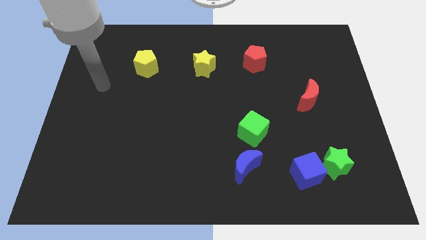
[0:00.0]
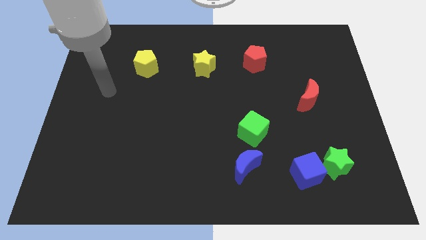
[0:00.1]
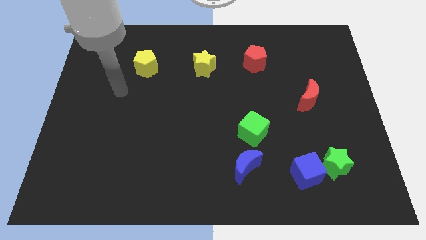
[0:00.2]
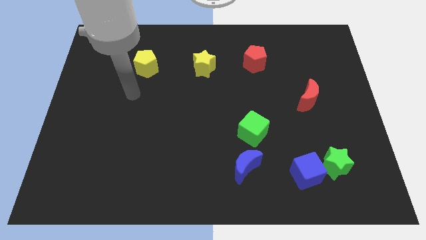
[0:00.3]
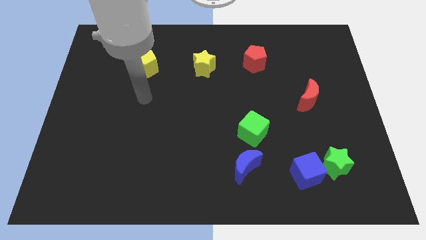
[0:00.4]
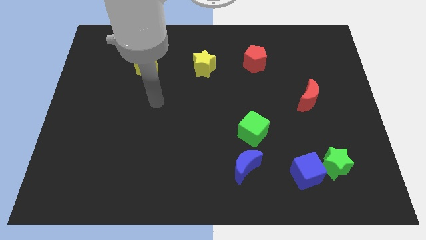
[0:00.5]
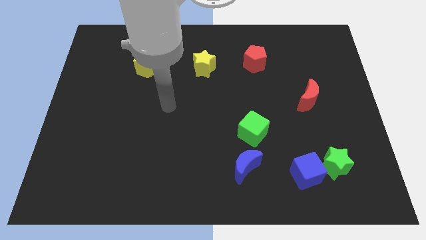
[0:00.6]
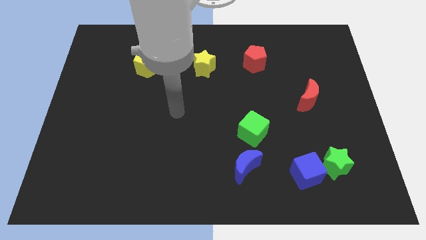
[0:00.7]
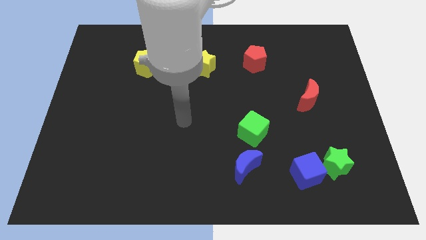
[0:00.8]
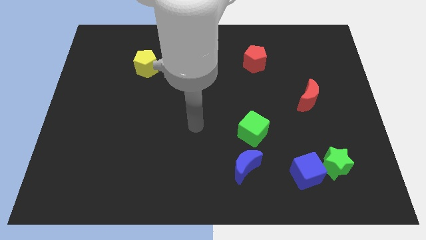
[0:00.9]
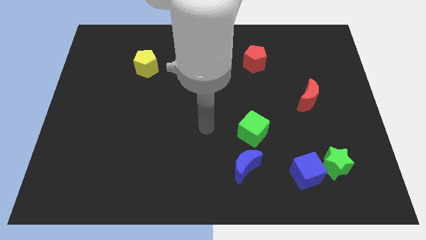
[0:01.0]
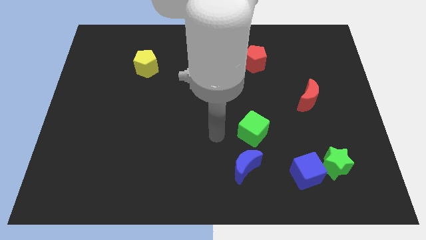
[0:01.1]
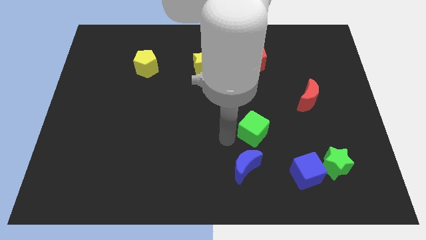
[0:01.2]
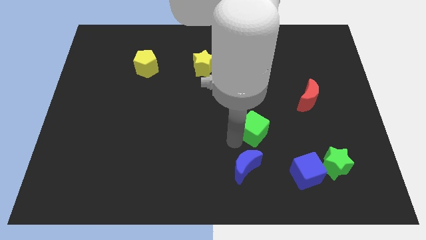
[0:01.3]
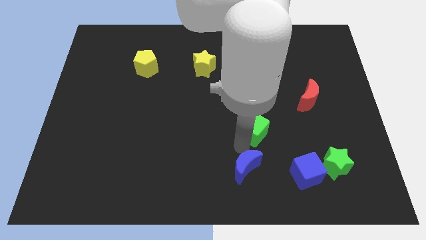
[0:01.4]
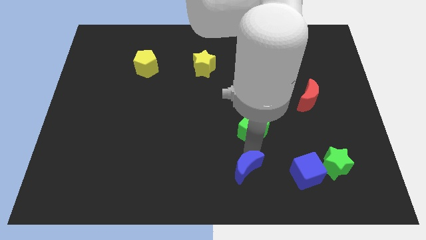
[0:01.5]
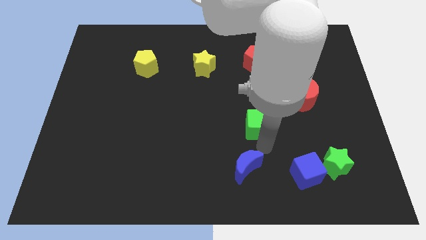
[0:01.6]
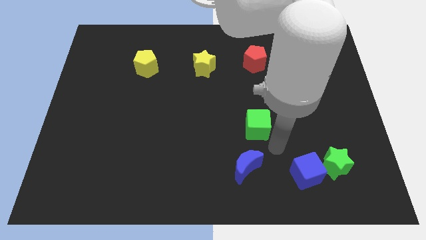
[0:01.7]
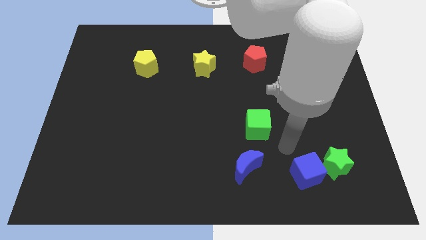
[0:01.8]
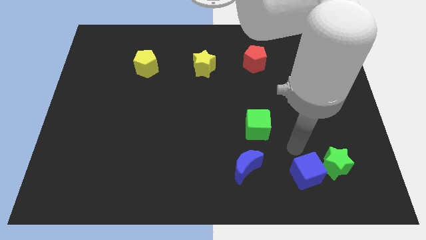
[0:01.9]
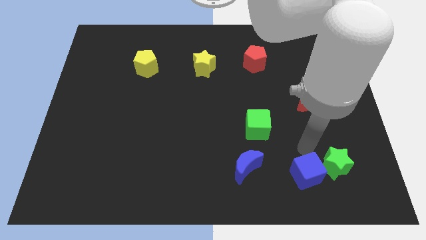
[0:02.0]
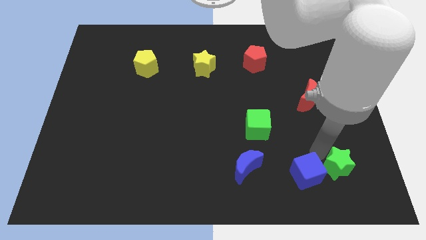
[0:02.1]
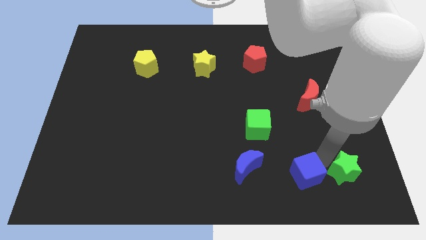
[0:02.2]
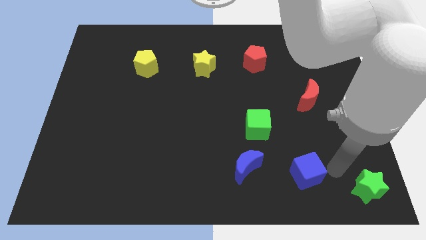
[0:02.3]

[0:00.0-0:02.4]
separate the blue cube from the green star

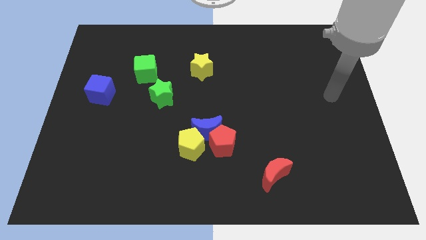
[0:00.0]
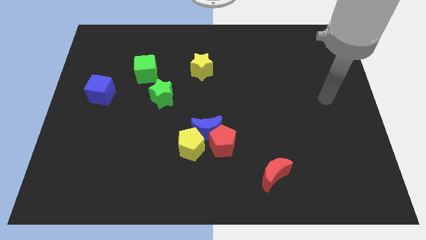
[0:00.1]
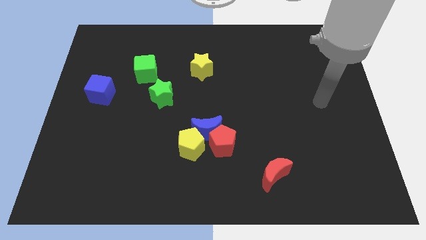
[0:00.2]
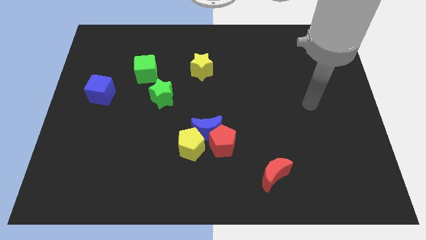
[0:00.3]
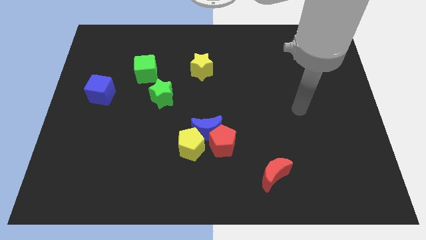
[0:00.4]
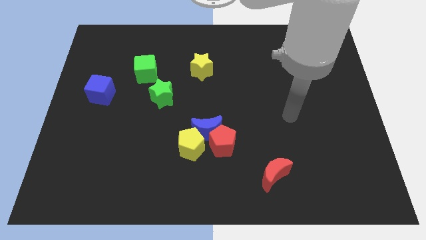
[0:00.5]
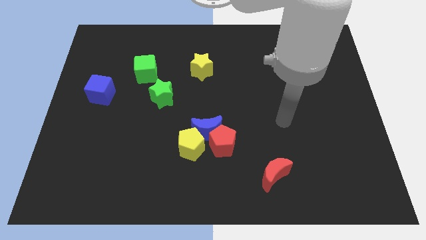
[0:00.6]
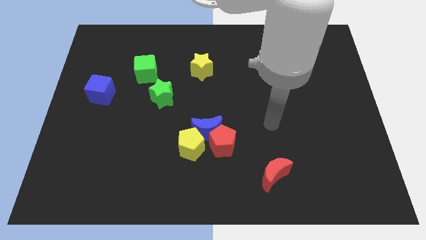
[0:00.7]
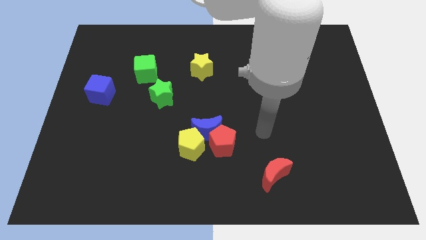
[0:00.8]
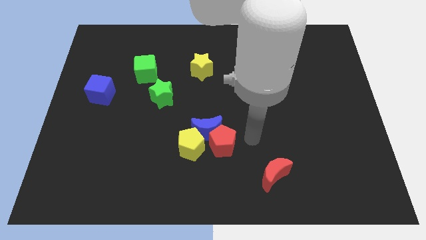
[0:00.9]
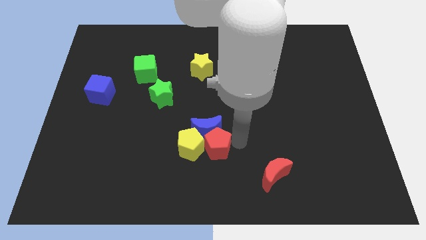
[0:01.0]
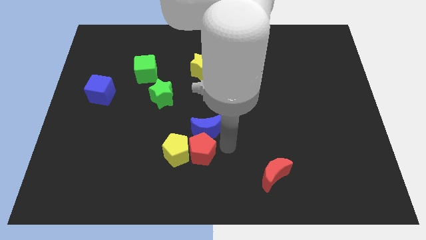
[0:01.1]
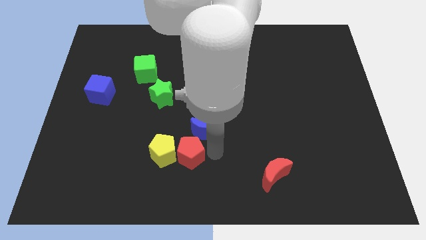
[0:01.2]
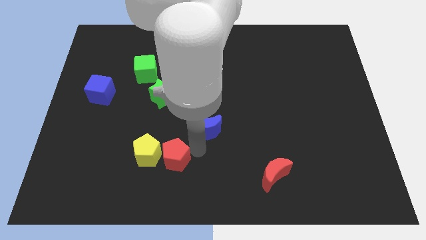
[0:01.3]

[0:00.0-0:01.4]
separate the blue moon from the red pentagon and yellow pentagon

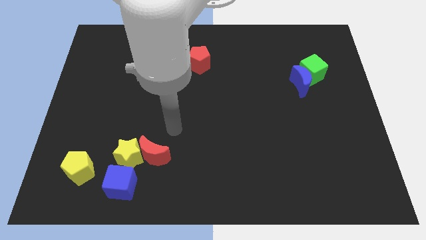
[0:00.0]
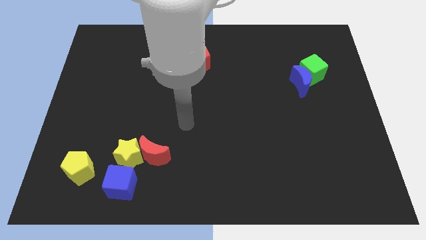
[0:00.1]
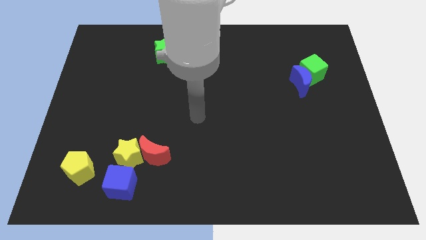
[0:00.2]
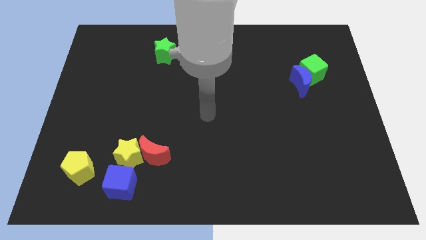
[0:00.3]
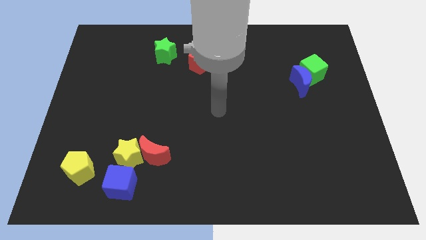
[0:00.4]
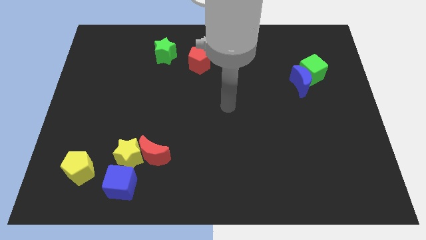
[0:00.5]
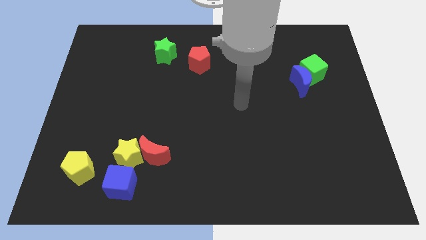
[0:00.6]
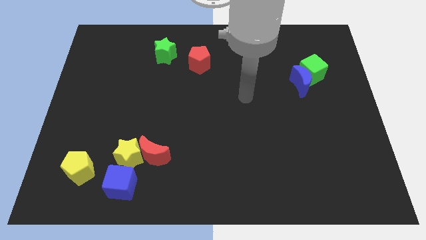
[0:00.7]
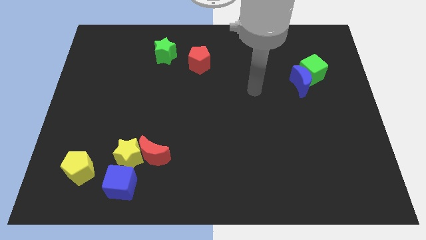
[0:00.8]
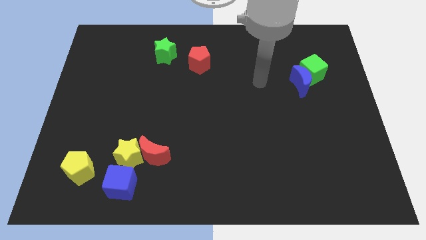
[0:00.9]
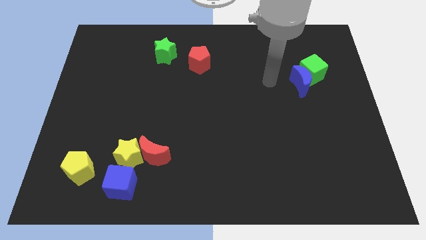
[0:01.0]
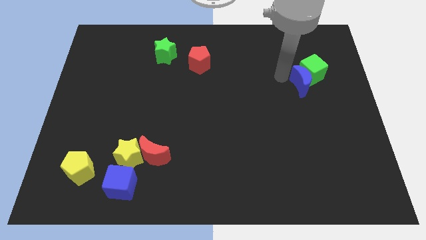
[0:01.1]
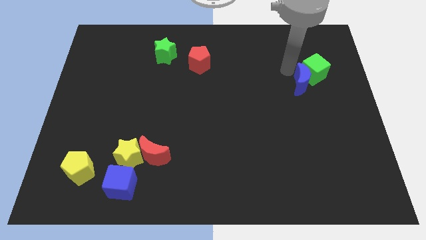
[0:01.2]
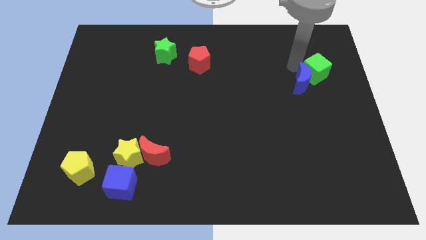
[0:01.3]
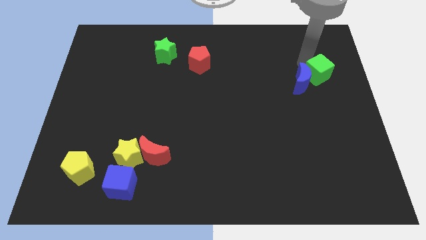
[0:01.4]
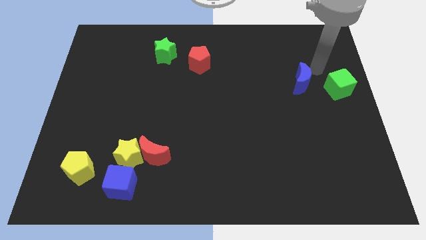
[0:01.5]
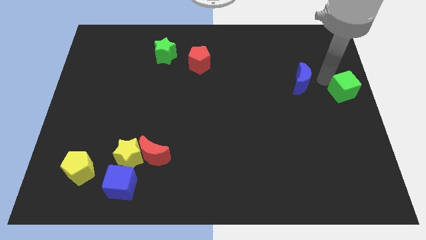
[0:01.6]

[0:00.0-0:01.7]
pull the blue moon apart from the green cube

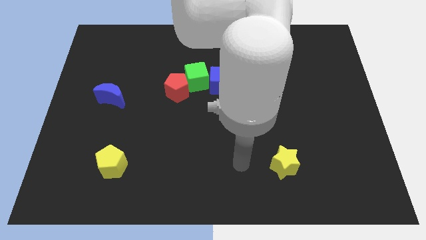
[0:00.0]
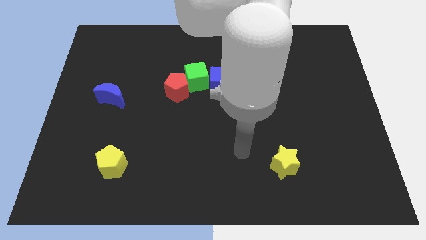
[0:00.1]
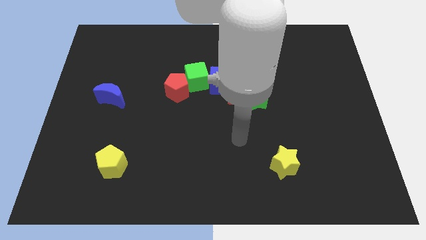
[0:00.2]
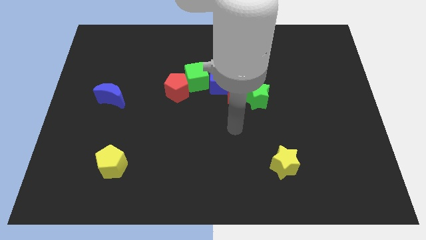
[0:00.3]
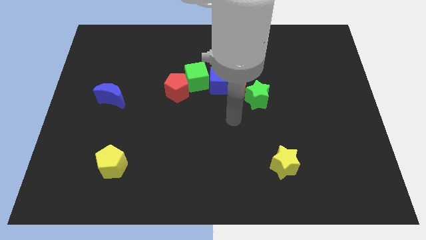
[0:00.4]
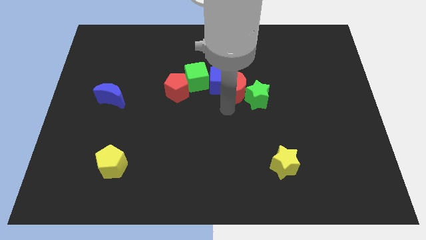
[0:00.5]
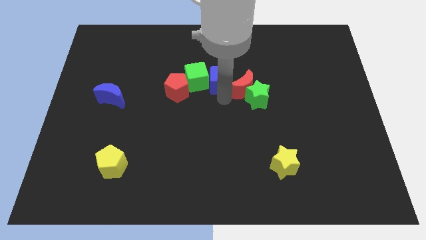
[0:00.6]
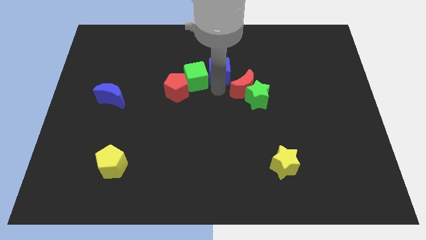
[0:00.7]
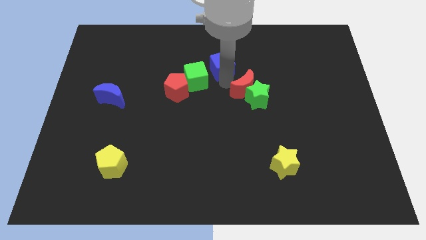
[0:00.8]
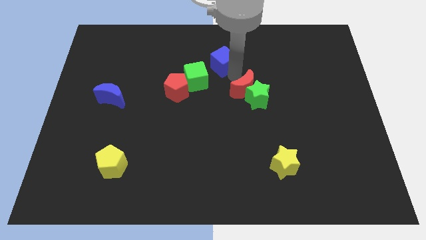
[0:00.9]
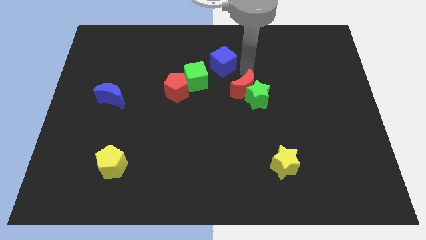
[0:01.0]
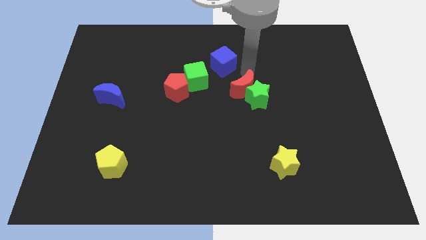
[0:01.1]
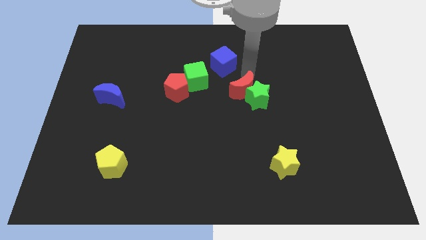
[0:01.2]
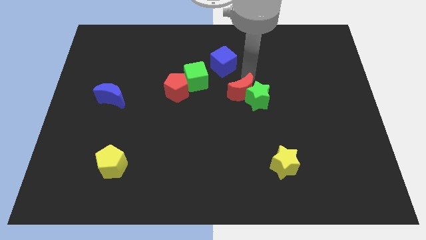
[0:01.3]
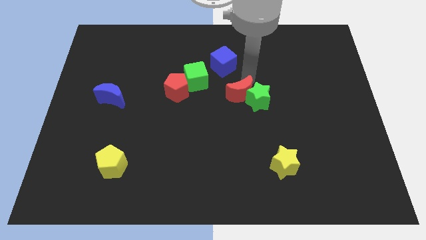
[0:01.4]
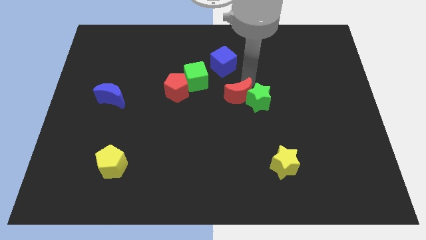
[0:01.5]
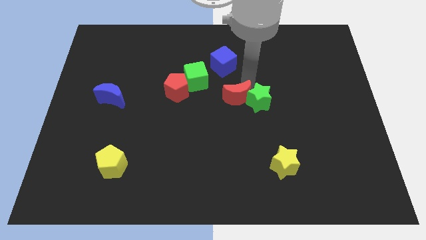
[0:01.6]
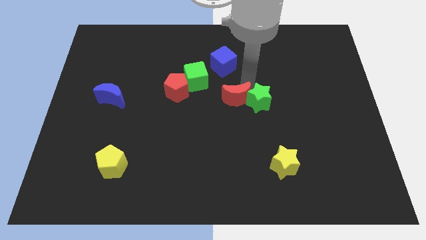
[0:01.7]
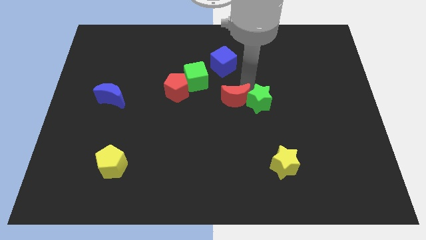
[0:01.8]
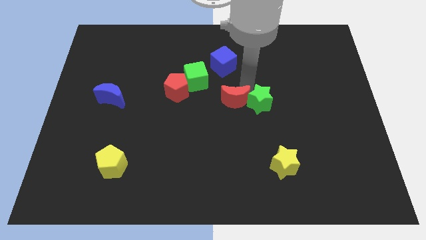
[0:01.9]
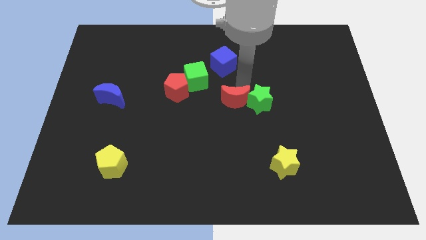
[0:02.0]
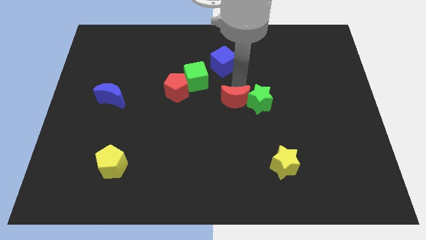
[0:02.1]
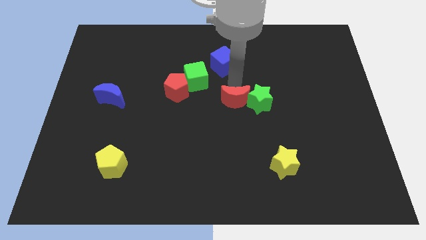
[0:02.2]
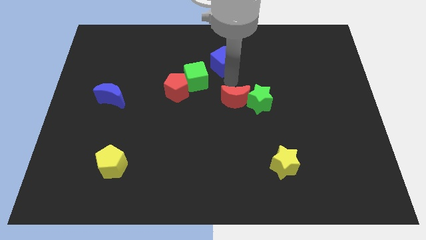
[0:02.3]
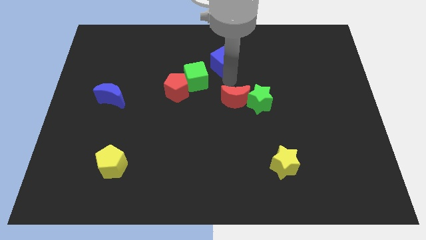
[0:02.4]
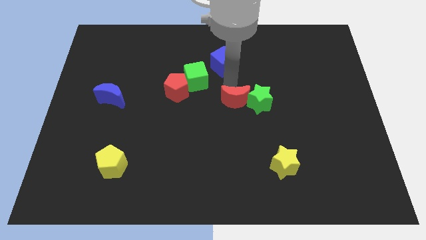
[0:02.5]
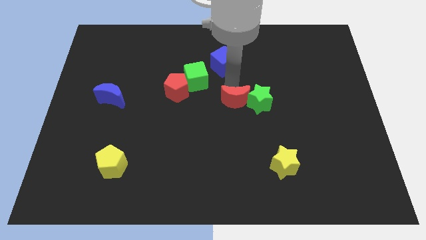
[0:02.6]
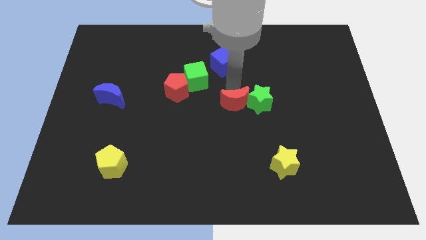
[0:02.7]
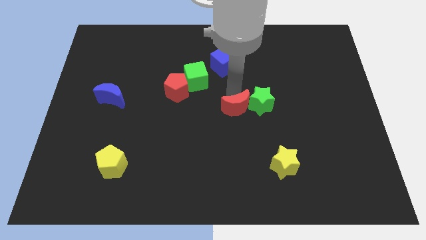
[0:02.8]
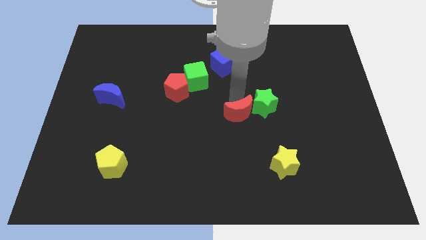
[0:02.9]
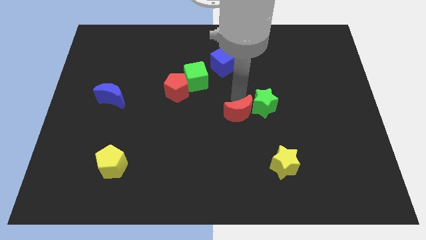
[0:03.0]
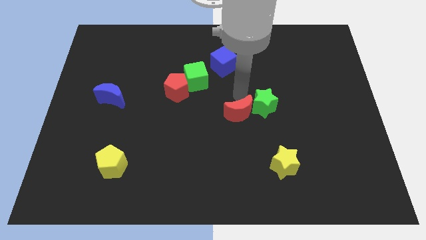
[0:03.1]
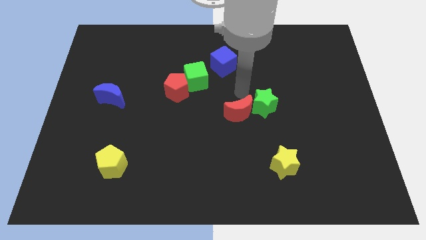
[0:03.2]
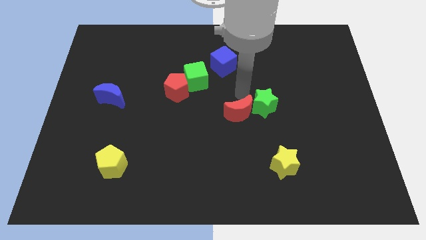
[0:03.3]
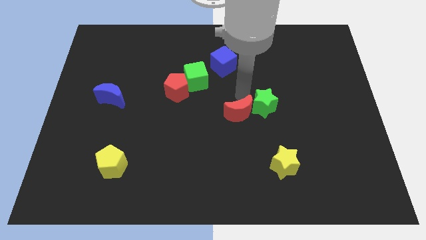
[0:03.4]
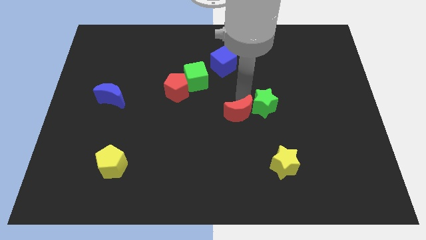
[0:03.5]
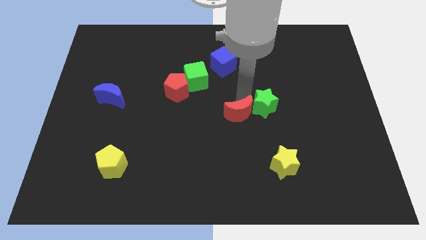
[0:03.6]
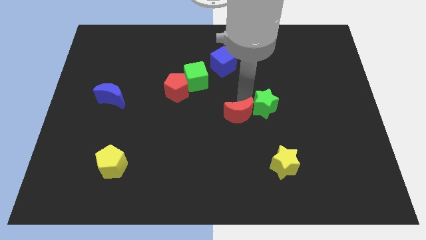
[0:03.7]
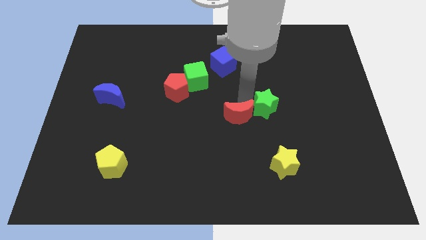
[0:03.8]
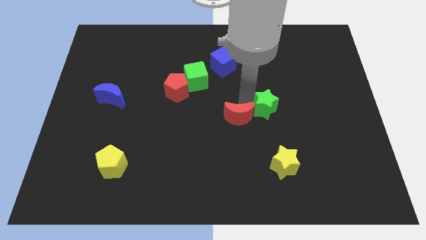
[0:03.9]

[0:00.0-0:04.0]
separate the red moon from the green star and blue cube
